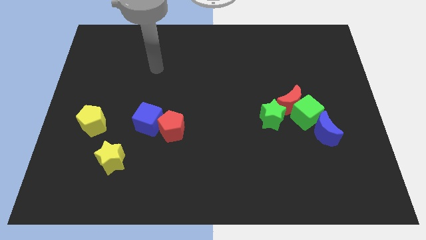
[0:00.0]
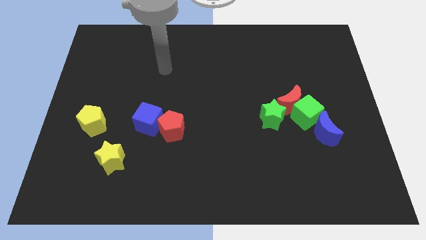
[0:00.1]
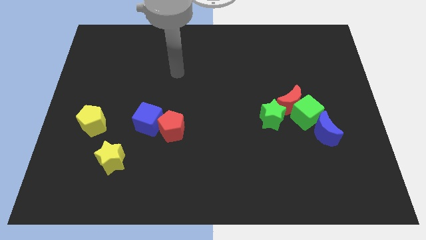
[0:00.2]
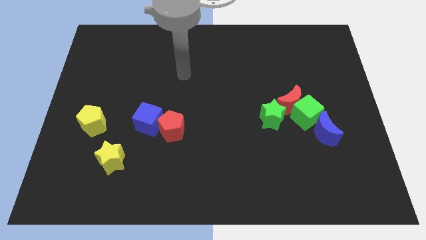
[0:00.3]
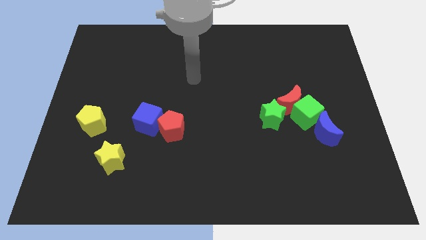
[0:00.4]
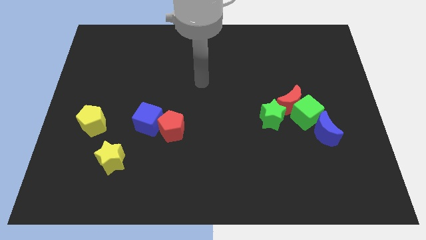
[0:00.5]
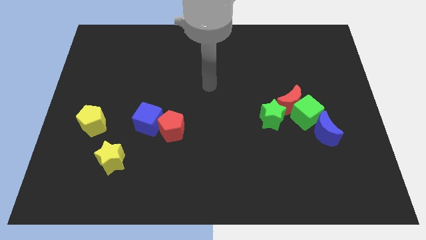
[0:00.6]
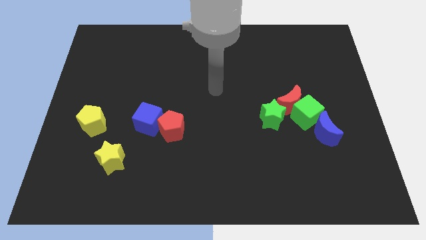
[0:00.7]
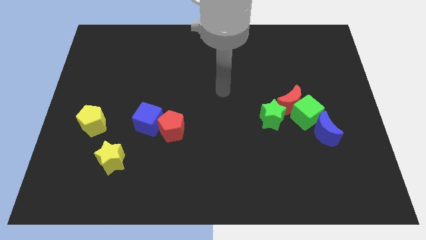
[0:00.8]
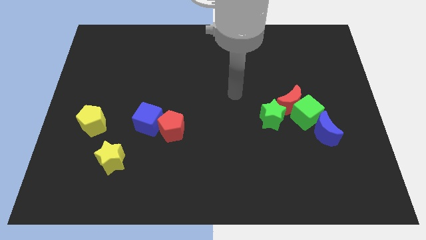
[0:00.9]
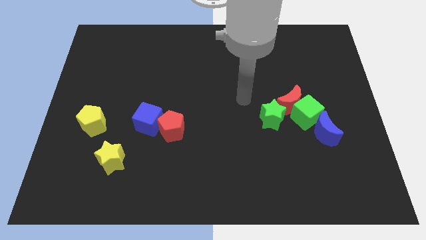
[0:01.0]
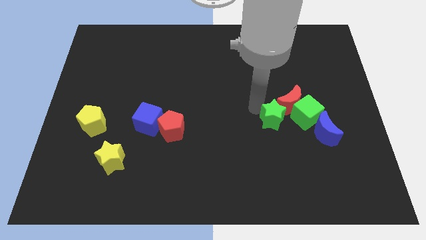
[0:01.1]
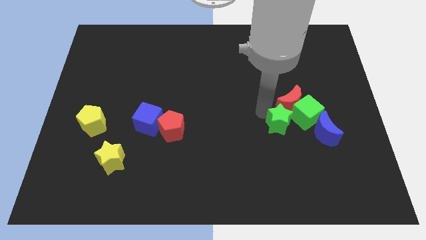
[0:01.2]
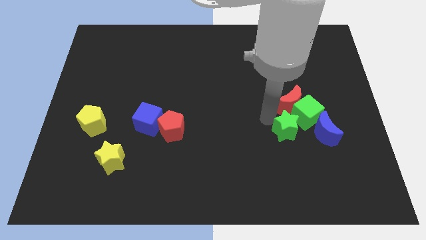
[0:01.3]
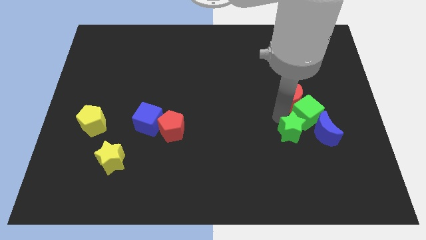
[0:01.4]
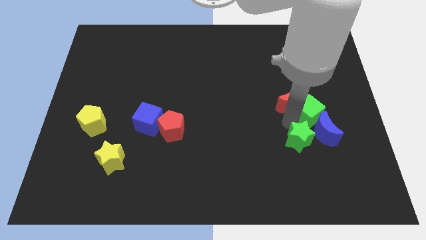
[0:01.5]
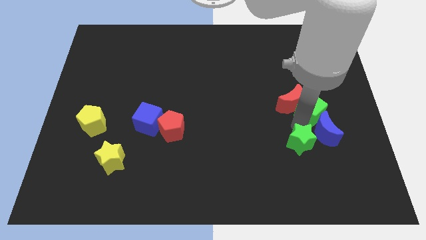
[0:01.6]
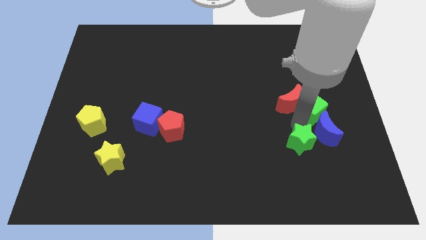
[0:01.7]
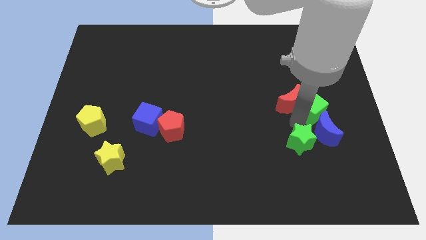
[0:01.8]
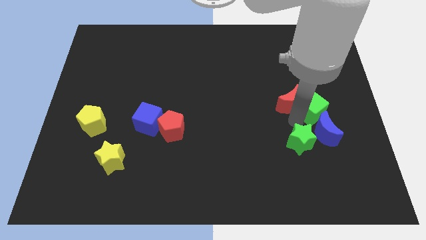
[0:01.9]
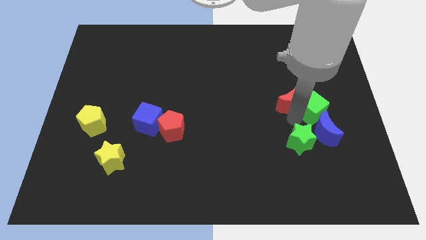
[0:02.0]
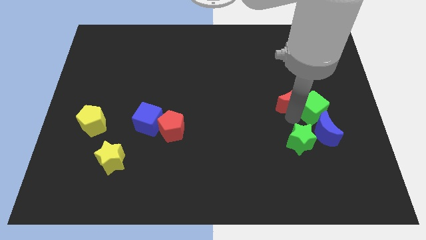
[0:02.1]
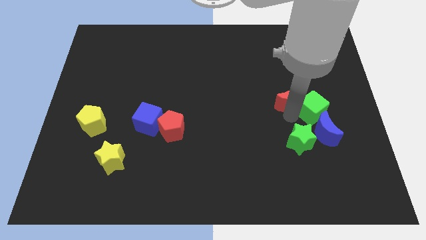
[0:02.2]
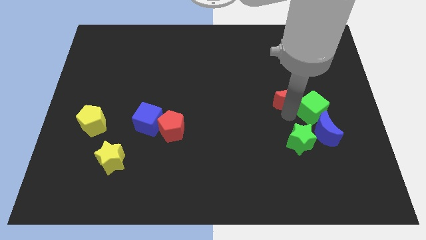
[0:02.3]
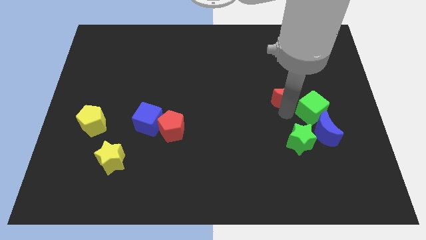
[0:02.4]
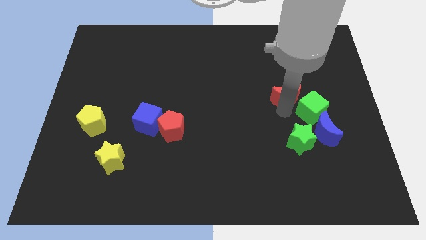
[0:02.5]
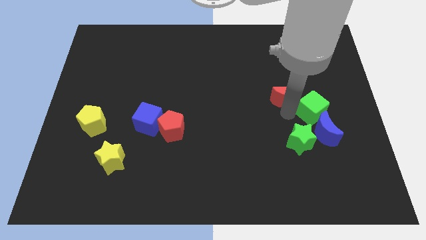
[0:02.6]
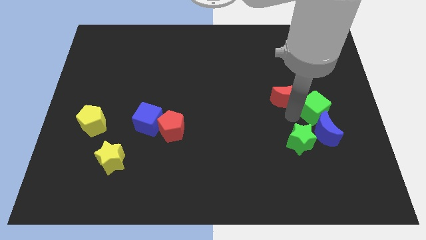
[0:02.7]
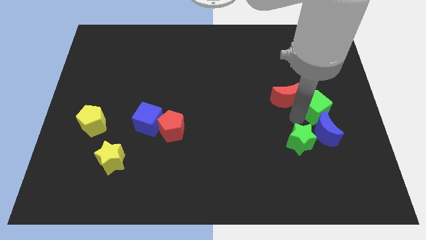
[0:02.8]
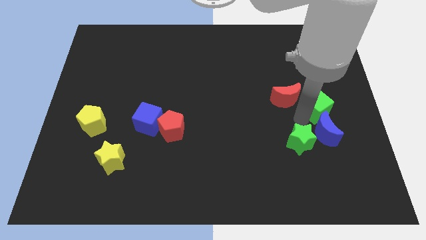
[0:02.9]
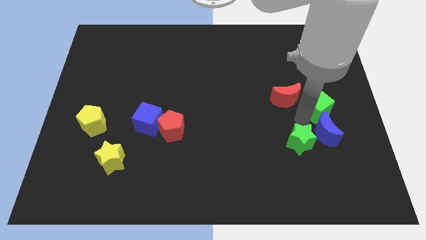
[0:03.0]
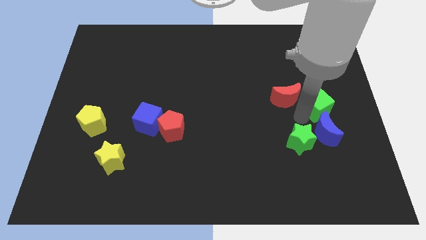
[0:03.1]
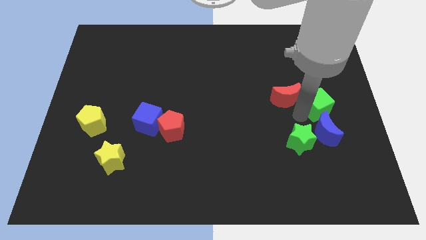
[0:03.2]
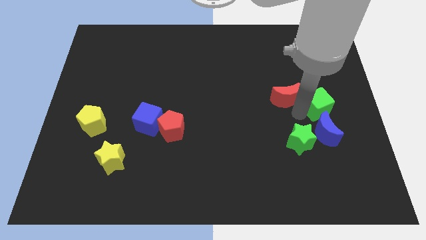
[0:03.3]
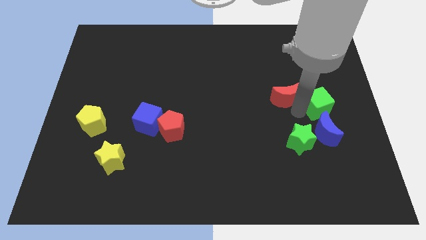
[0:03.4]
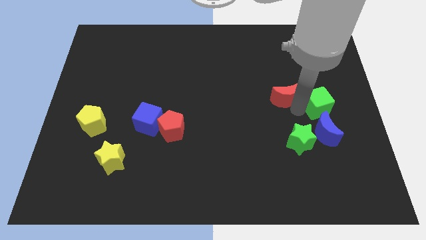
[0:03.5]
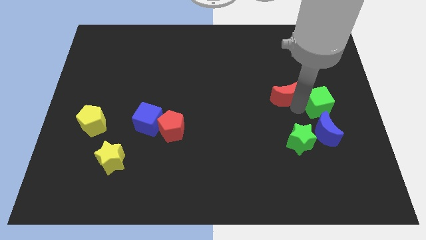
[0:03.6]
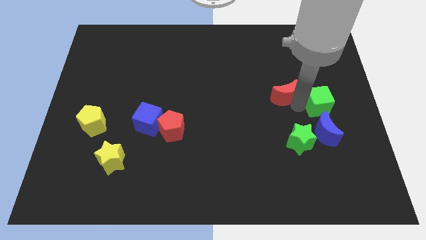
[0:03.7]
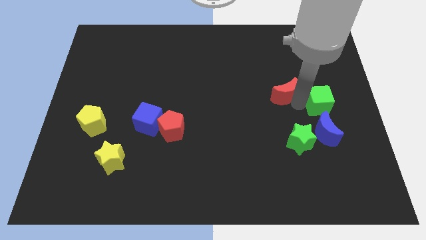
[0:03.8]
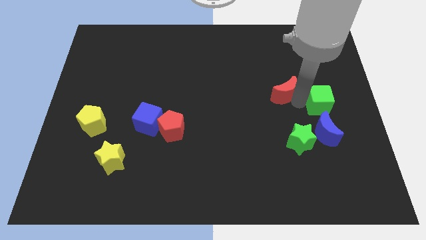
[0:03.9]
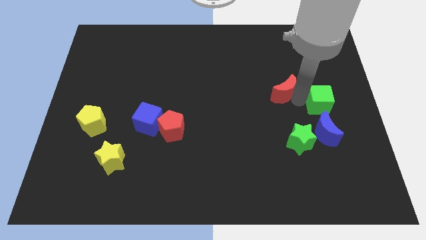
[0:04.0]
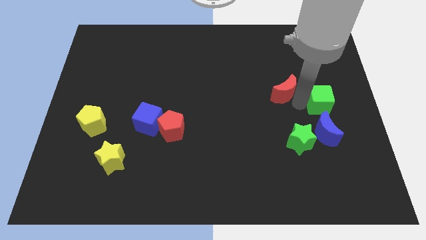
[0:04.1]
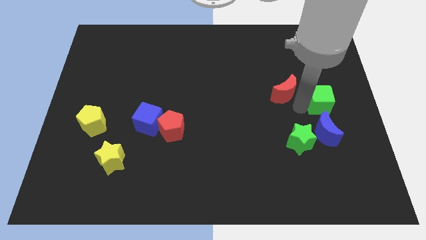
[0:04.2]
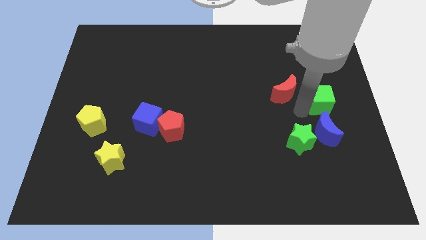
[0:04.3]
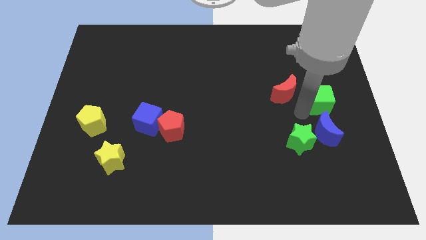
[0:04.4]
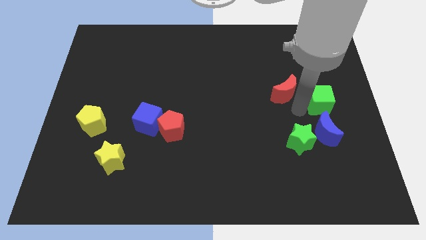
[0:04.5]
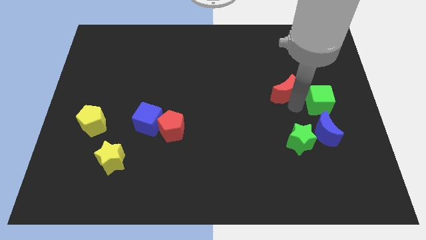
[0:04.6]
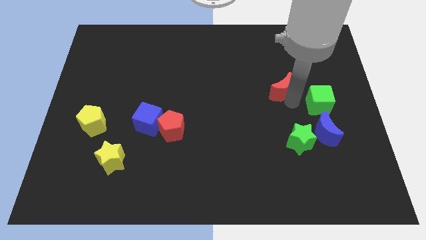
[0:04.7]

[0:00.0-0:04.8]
separate the red moon from the green cube and green star

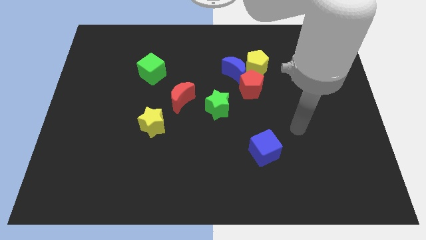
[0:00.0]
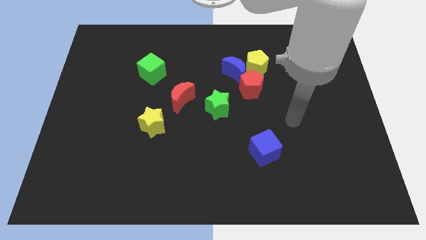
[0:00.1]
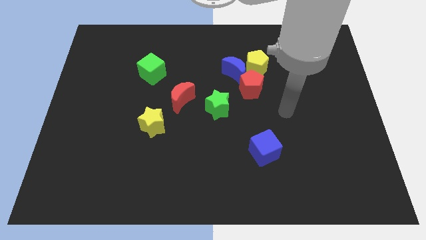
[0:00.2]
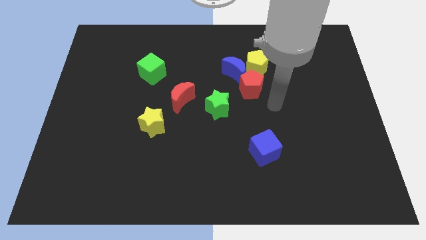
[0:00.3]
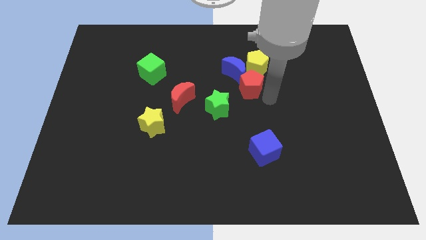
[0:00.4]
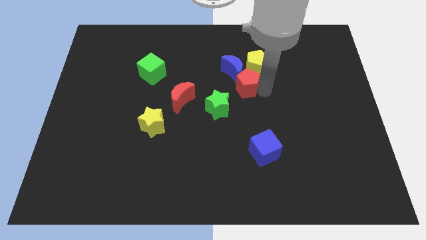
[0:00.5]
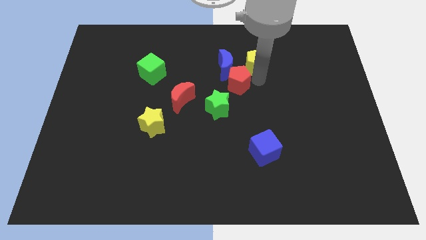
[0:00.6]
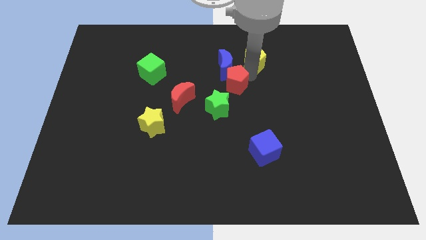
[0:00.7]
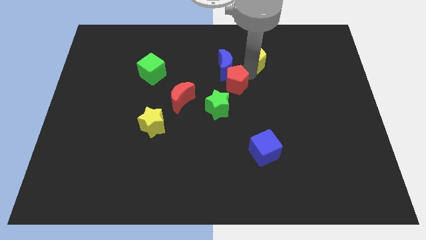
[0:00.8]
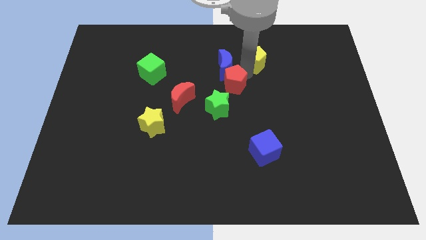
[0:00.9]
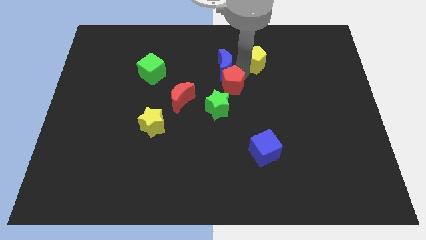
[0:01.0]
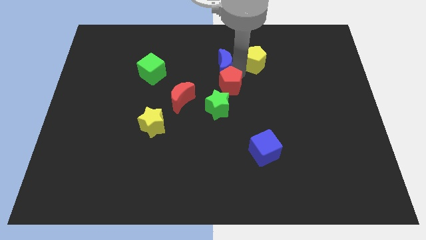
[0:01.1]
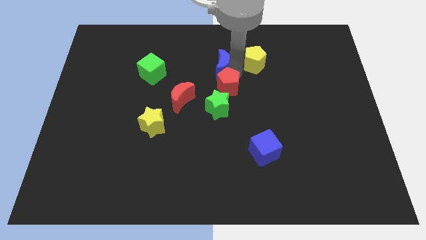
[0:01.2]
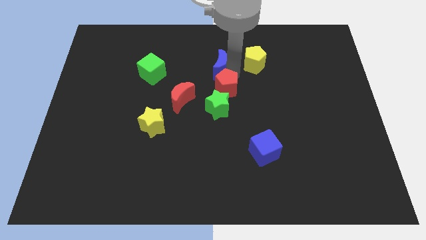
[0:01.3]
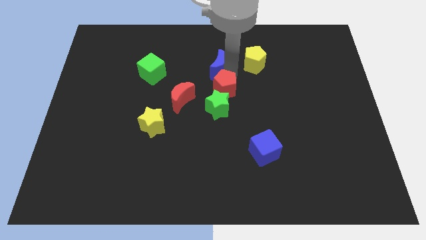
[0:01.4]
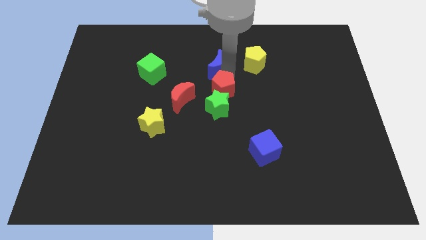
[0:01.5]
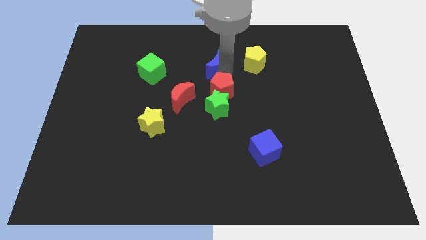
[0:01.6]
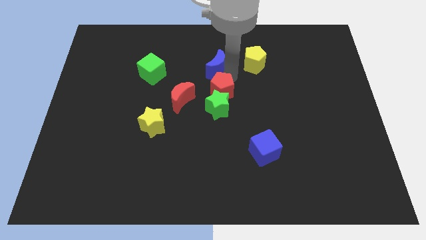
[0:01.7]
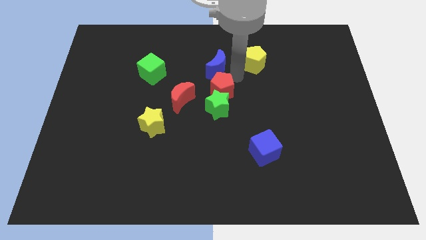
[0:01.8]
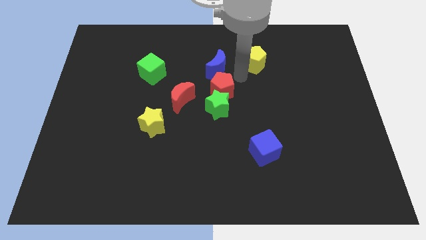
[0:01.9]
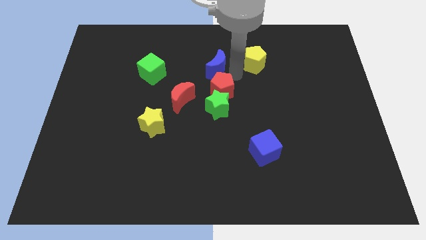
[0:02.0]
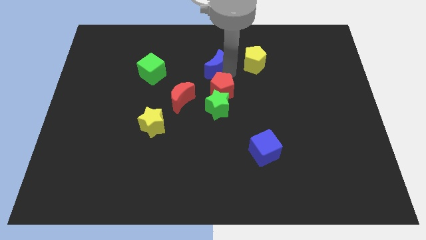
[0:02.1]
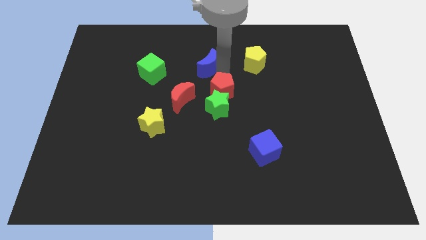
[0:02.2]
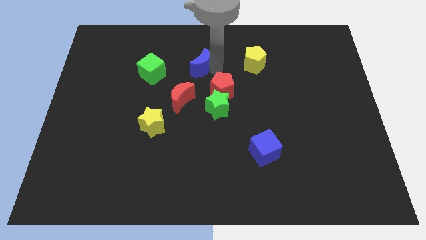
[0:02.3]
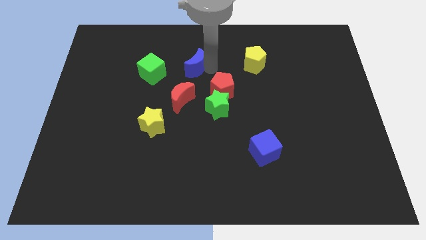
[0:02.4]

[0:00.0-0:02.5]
pull the blue moon apart from the yellow pentagon and red pentagon

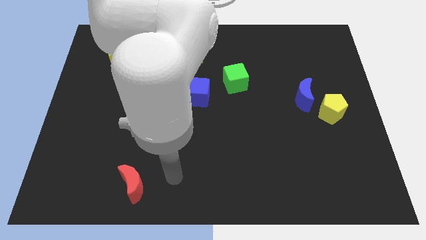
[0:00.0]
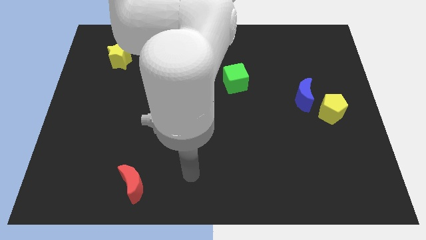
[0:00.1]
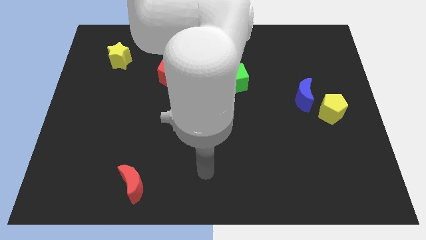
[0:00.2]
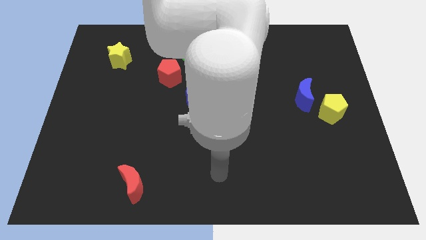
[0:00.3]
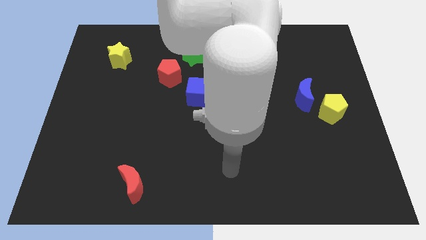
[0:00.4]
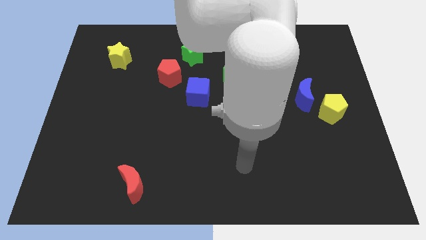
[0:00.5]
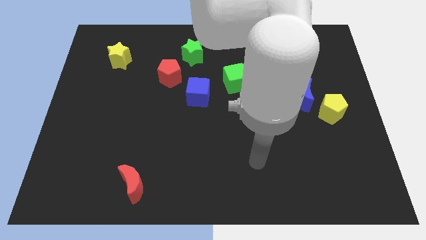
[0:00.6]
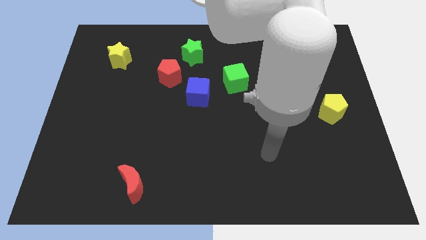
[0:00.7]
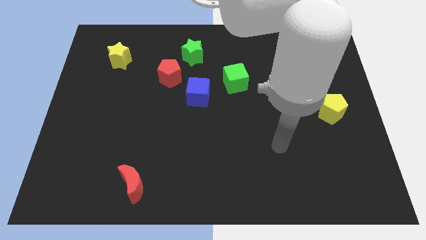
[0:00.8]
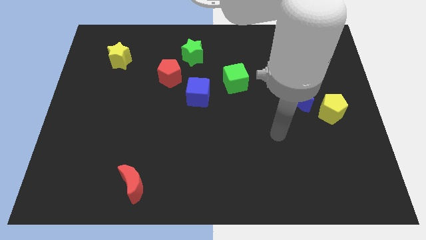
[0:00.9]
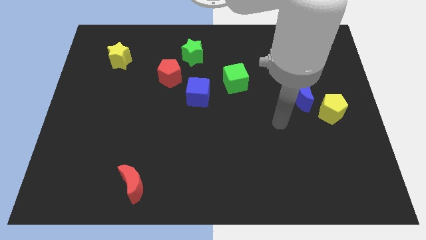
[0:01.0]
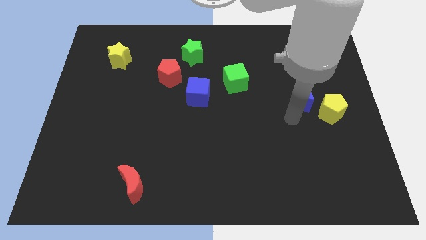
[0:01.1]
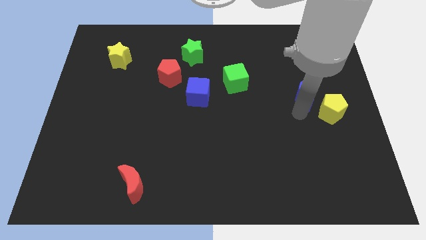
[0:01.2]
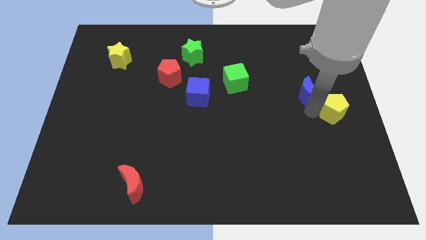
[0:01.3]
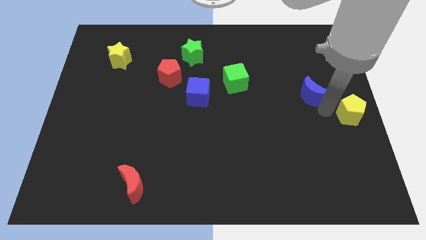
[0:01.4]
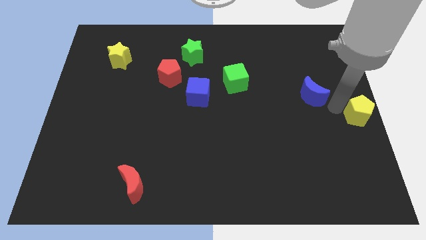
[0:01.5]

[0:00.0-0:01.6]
pull the blue moon apart from the yellow pentagon

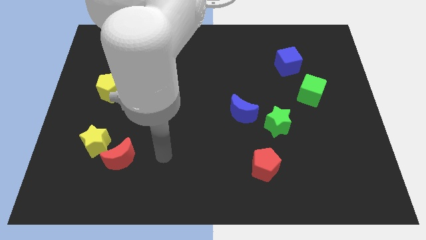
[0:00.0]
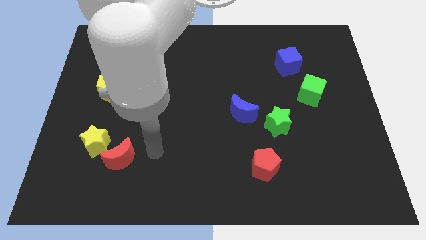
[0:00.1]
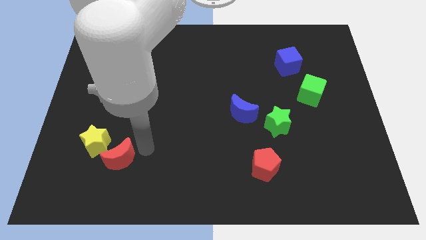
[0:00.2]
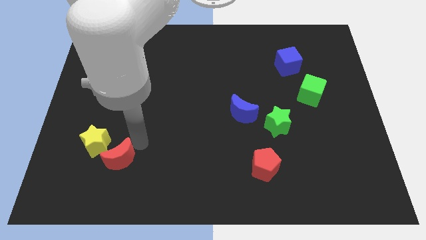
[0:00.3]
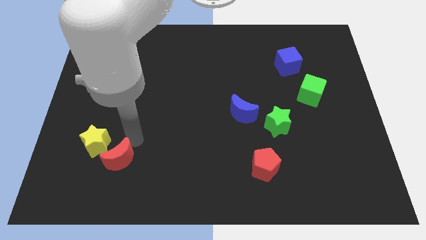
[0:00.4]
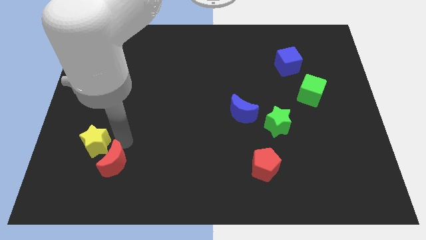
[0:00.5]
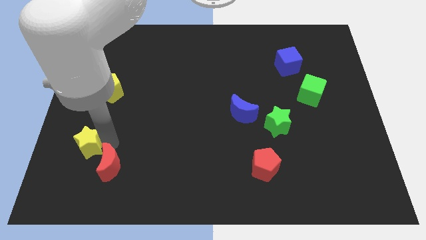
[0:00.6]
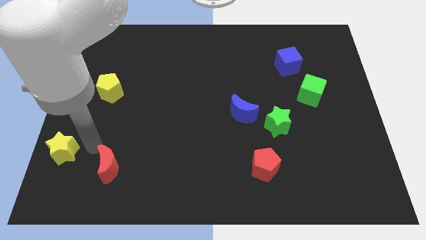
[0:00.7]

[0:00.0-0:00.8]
pull the red moon apart from the yellow star
